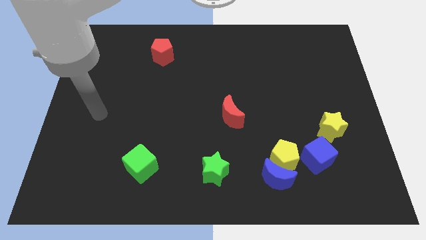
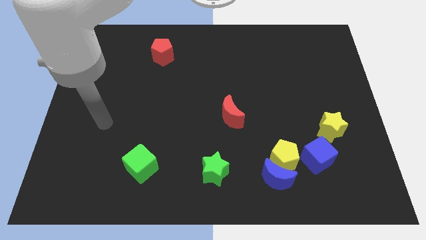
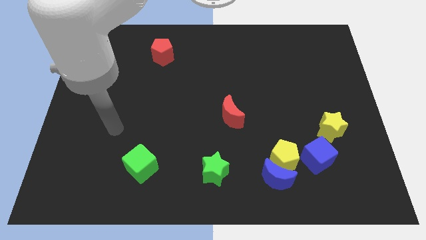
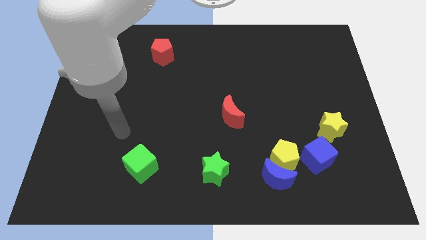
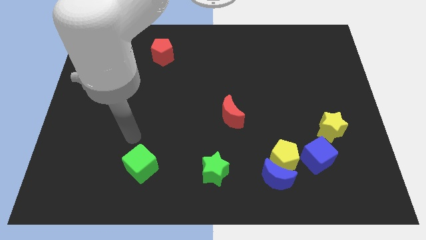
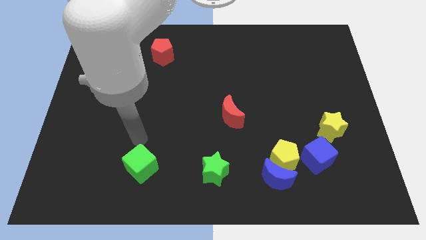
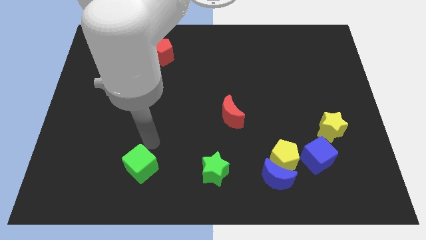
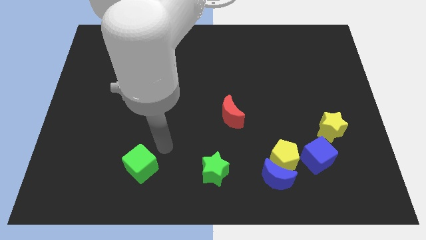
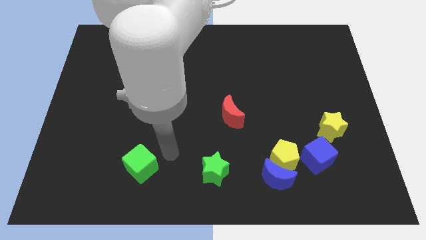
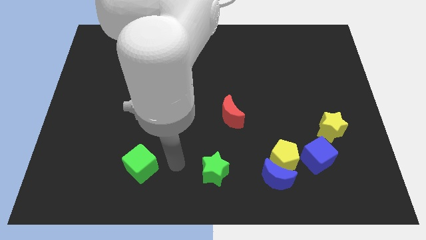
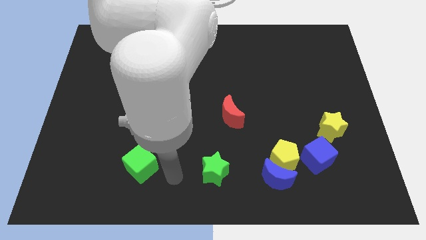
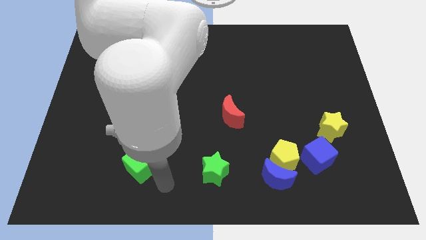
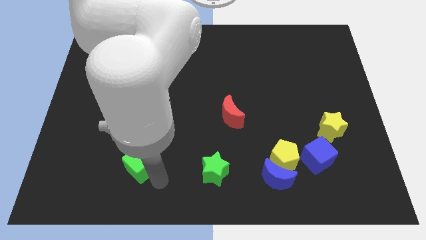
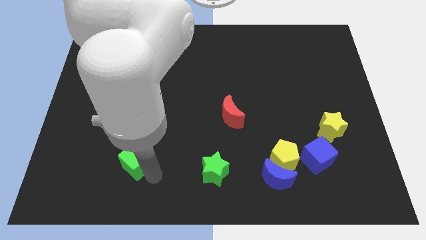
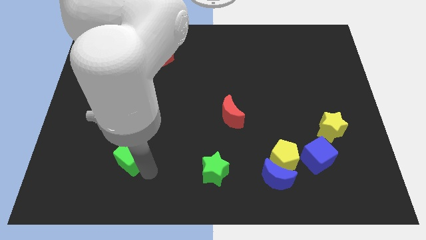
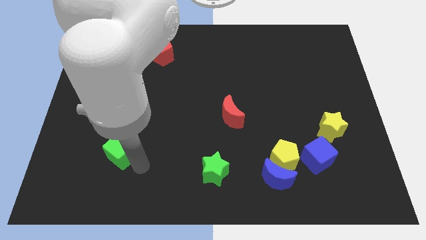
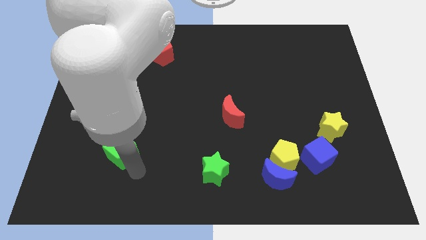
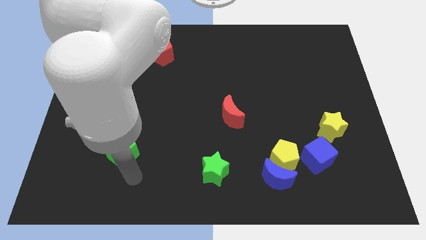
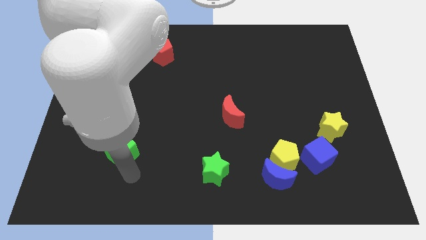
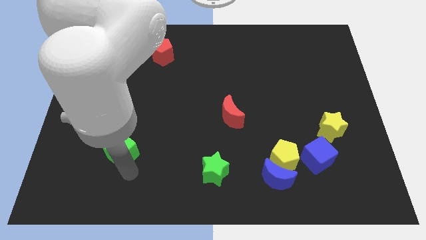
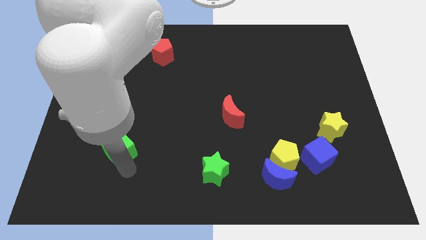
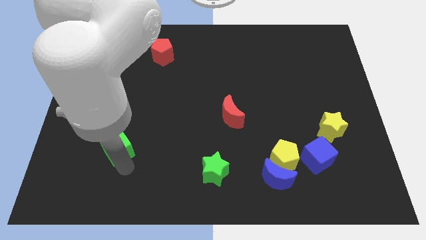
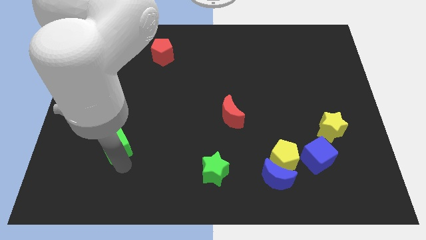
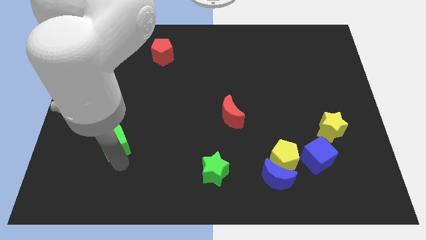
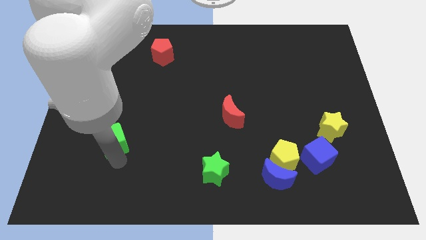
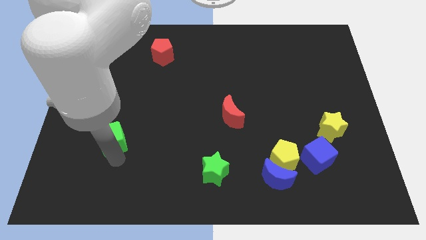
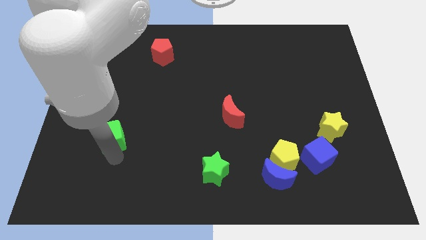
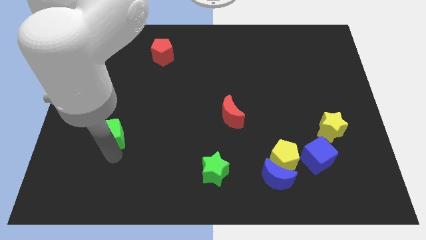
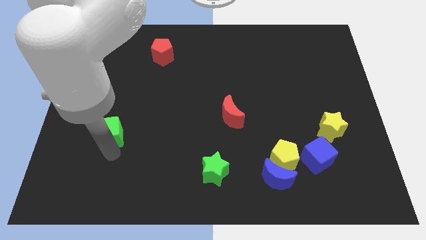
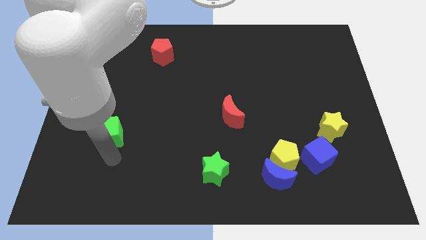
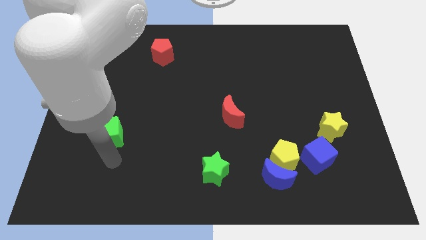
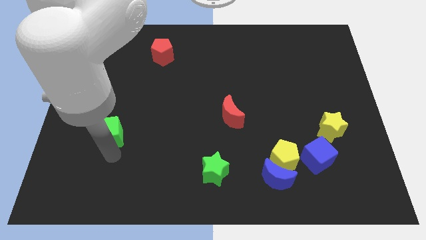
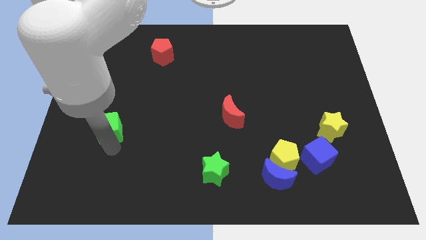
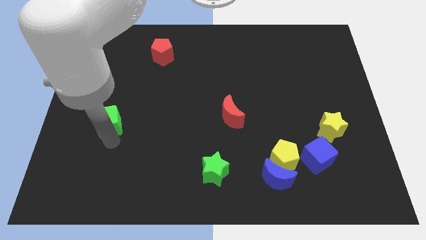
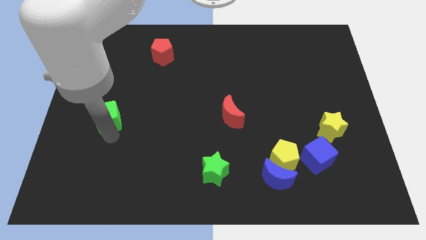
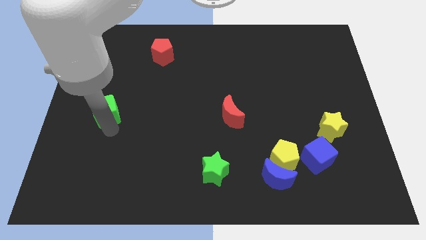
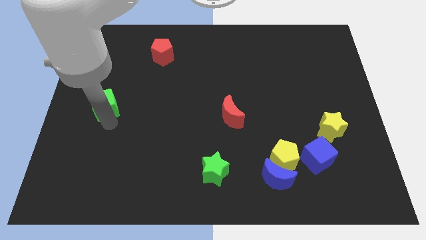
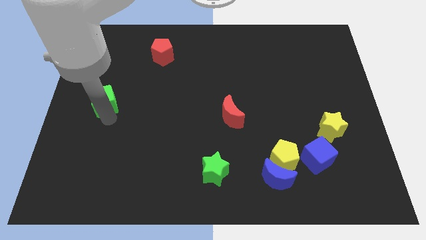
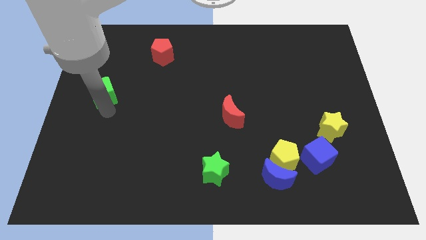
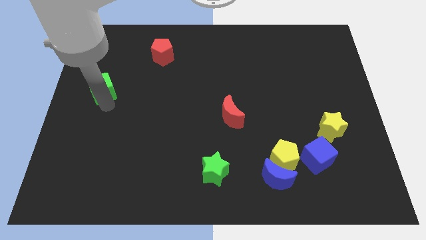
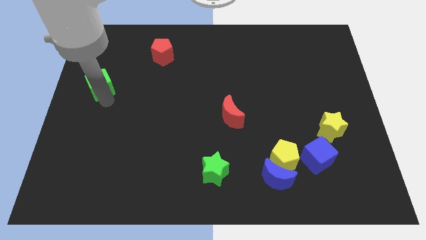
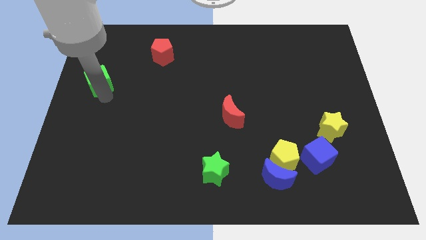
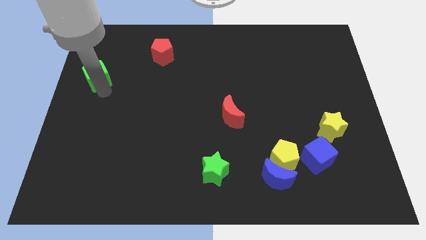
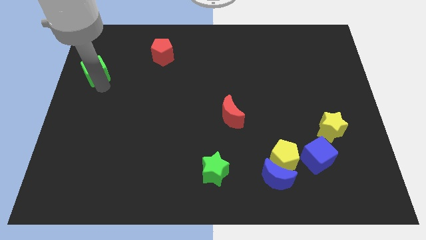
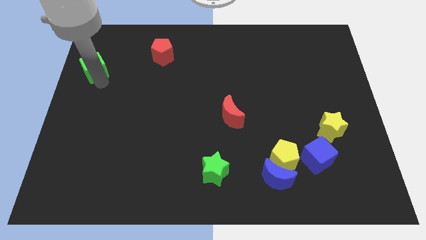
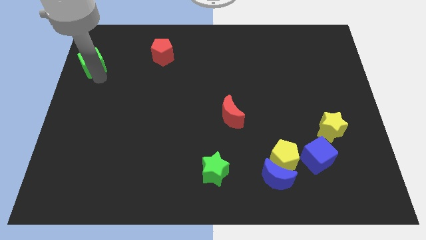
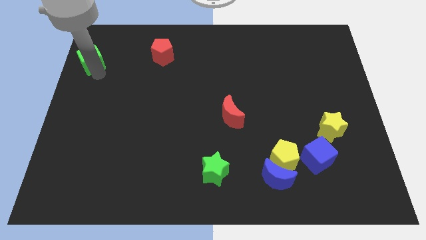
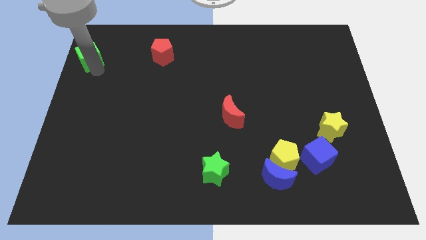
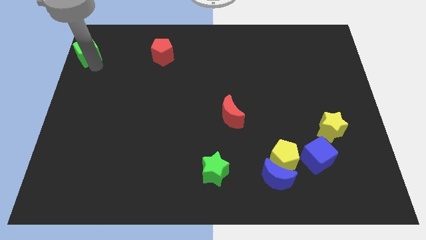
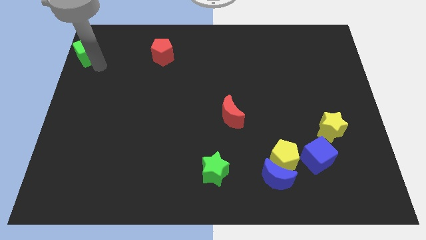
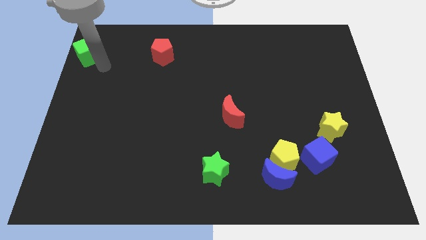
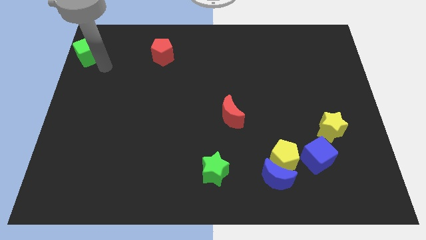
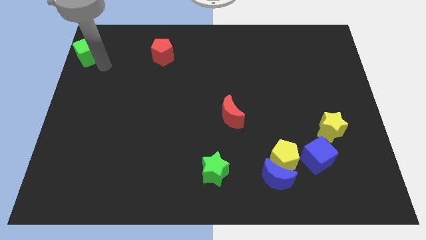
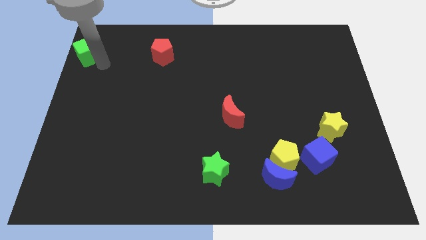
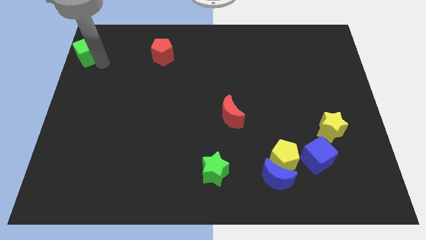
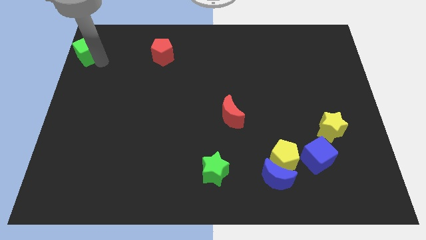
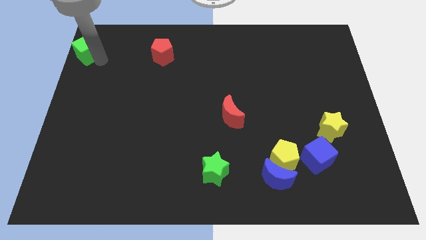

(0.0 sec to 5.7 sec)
slide the green cube to the top left
